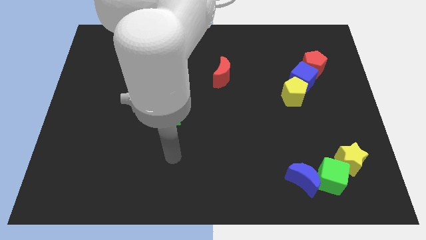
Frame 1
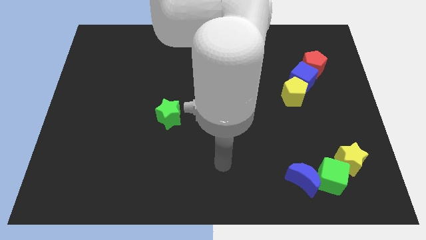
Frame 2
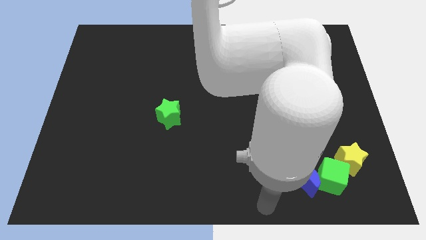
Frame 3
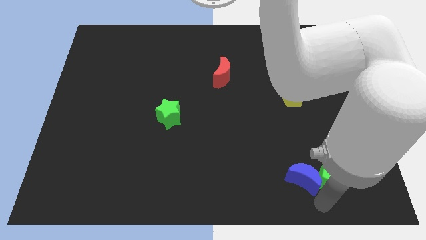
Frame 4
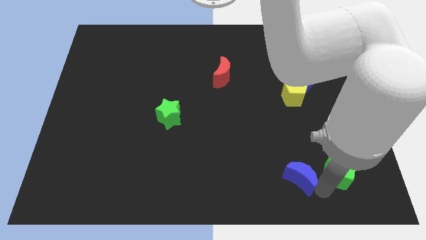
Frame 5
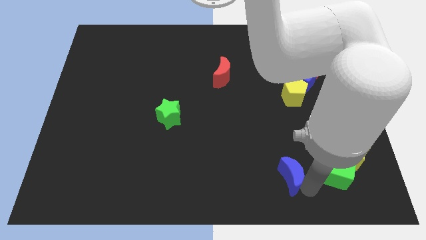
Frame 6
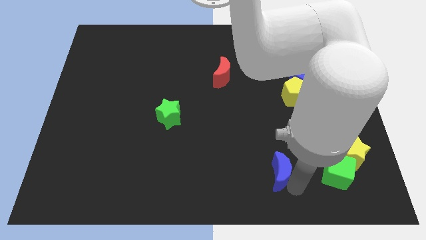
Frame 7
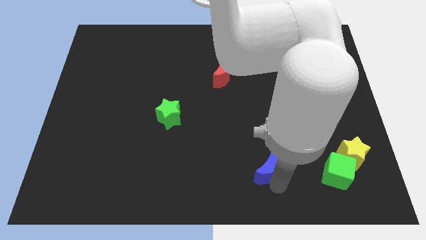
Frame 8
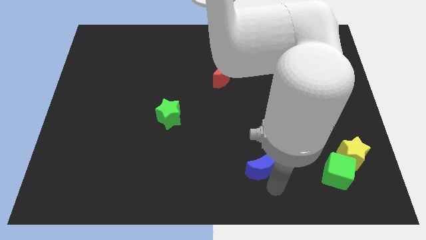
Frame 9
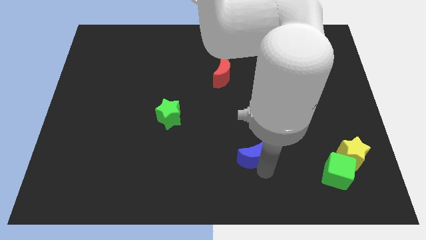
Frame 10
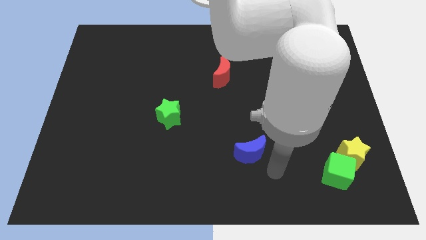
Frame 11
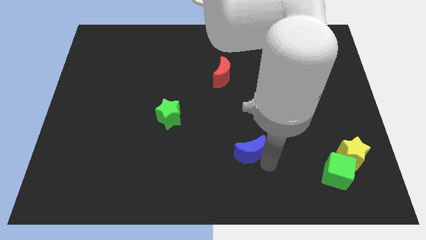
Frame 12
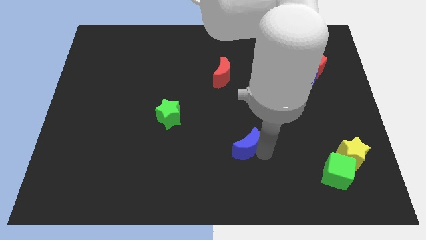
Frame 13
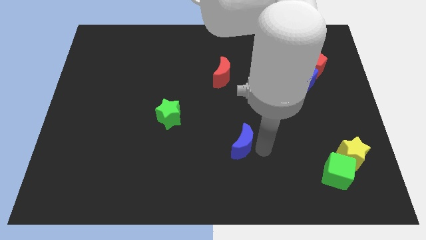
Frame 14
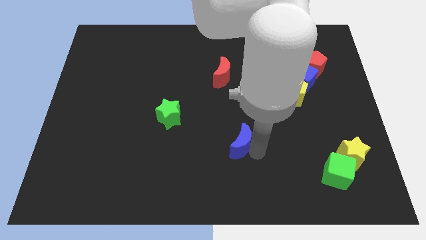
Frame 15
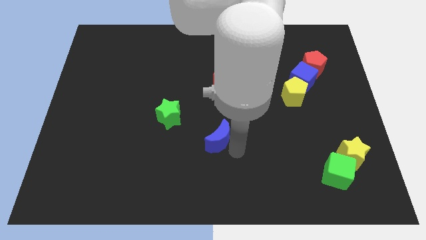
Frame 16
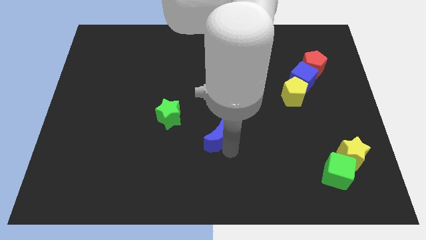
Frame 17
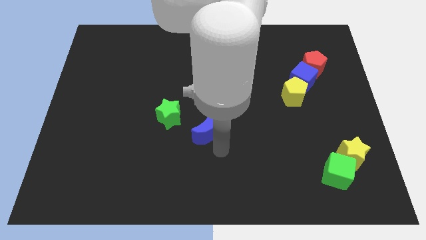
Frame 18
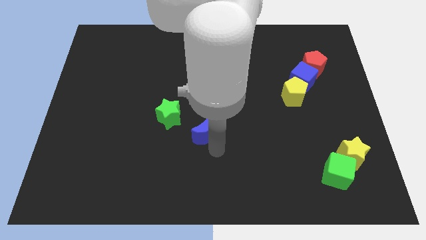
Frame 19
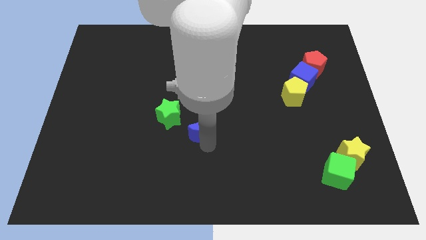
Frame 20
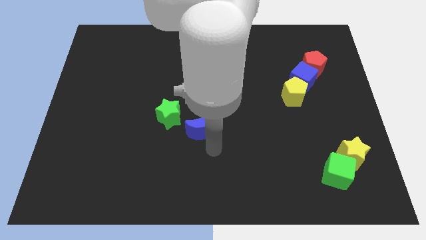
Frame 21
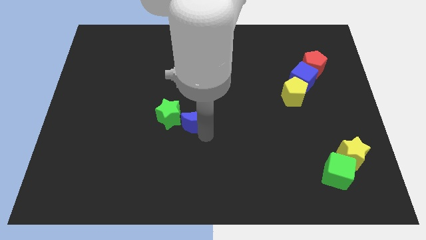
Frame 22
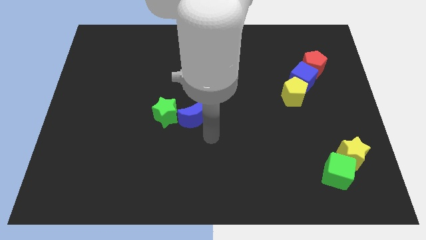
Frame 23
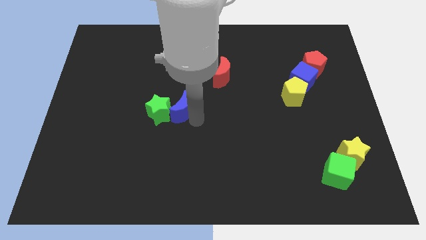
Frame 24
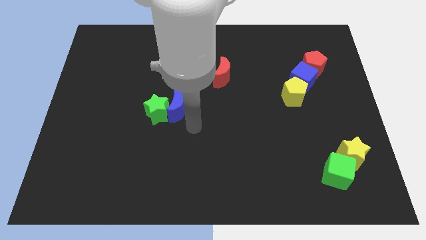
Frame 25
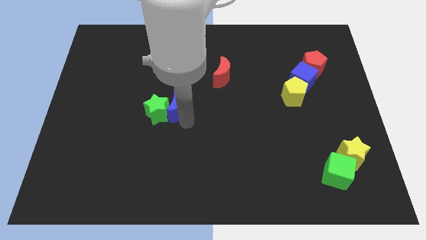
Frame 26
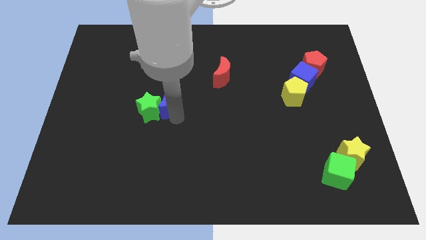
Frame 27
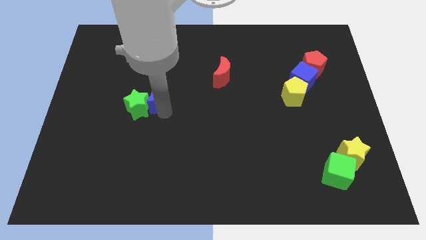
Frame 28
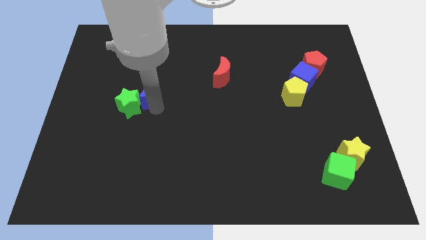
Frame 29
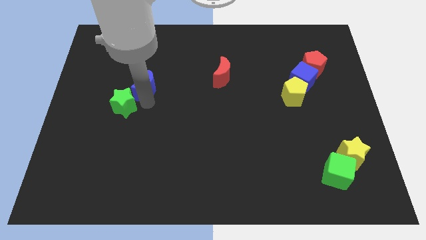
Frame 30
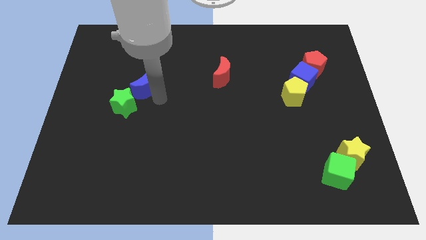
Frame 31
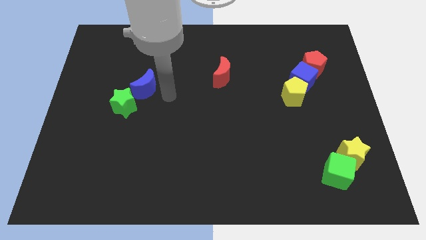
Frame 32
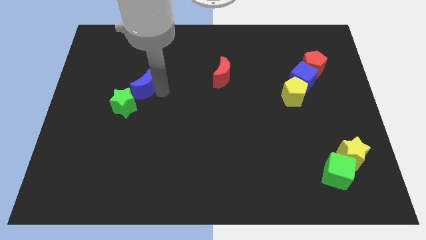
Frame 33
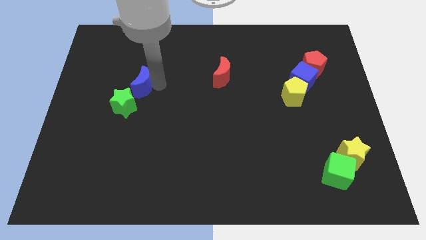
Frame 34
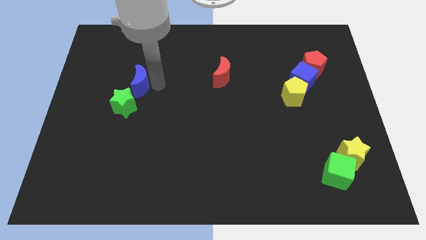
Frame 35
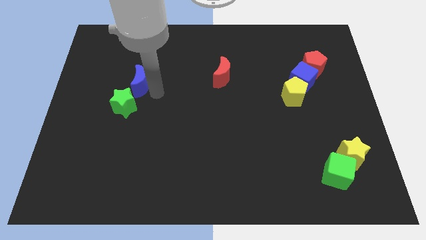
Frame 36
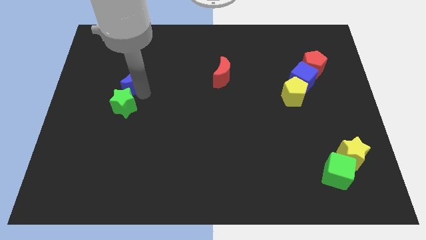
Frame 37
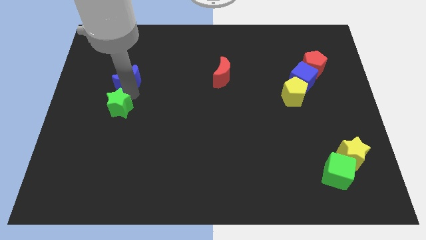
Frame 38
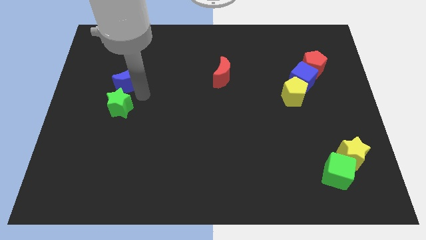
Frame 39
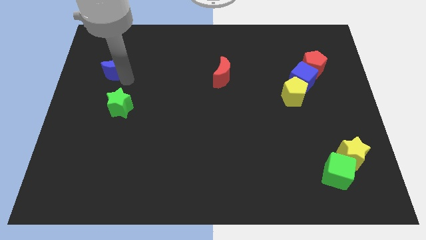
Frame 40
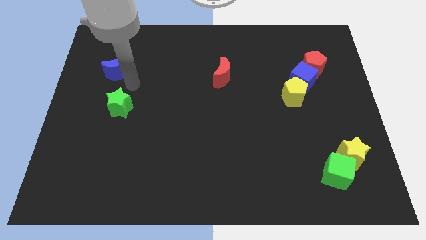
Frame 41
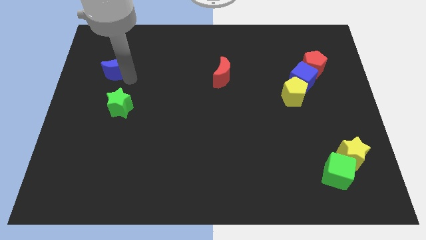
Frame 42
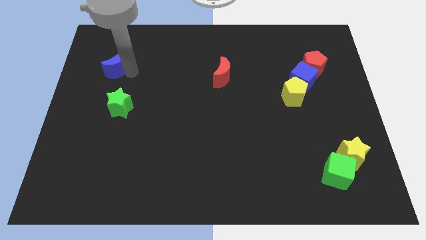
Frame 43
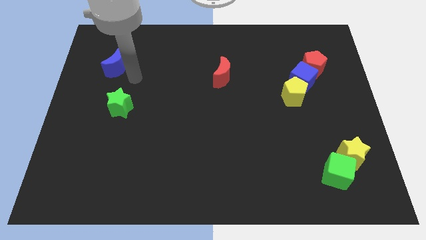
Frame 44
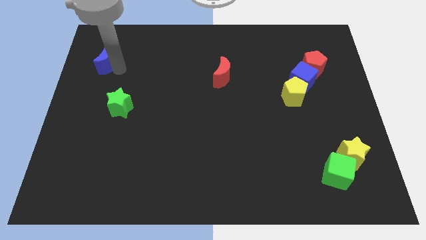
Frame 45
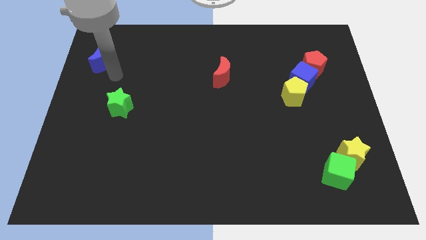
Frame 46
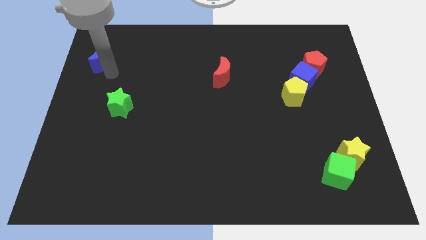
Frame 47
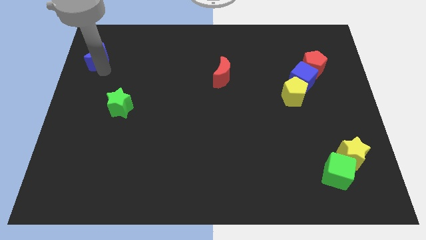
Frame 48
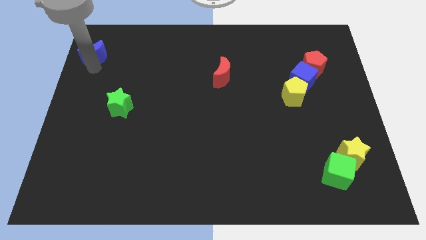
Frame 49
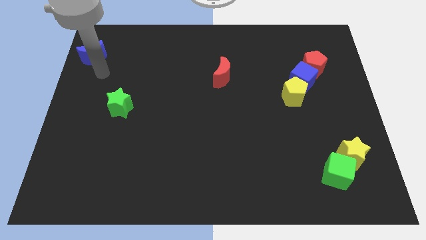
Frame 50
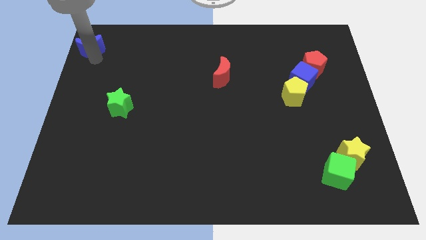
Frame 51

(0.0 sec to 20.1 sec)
move the blue moon to the top left of the board
